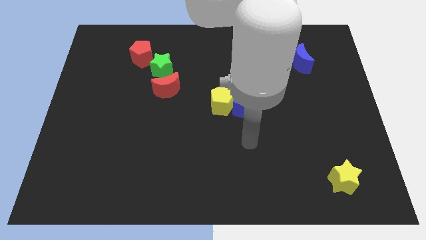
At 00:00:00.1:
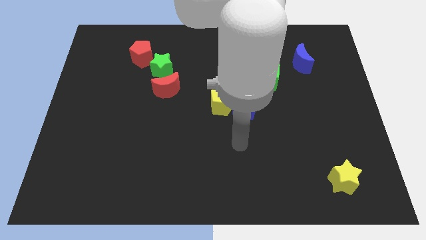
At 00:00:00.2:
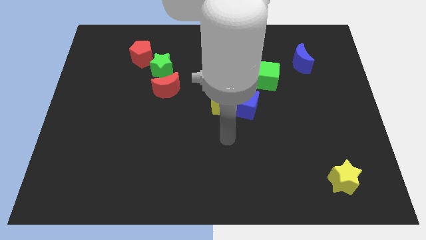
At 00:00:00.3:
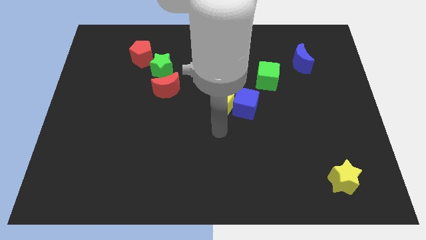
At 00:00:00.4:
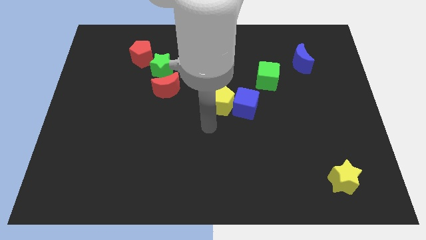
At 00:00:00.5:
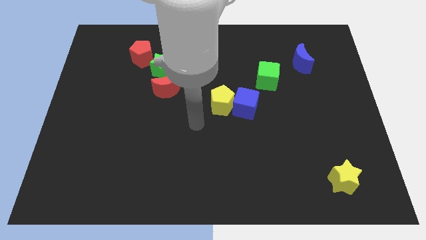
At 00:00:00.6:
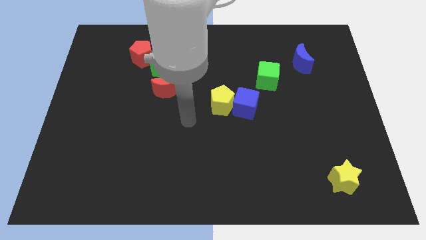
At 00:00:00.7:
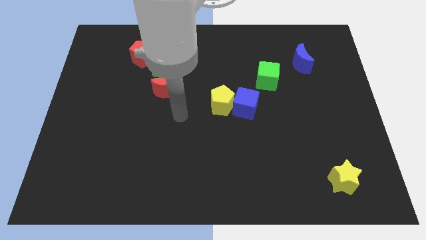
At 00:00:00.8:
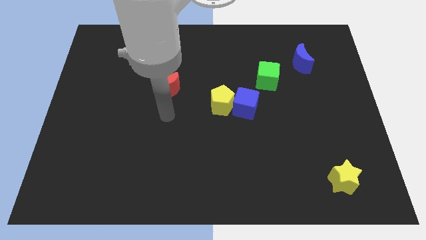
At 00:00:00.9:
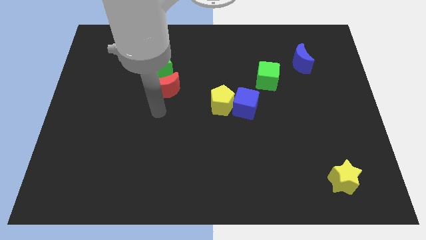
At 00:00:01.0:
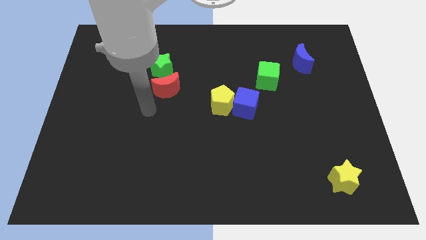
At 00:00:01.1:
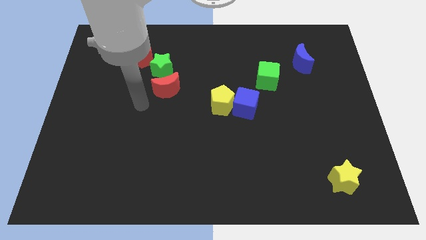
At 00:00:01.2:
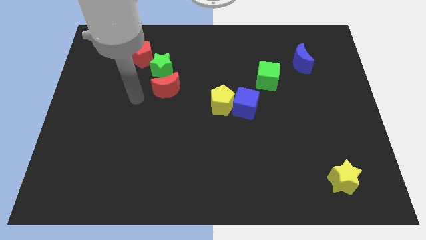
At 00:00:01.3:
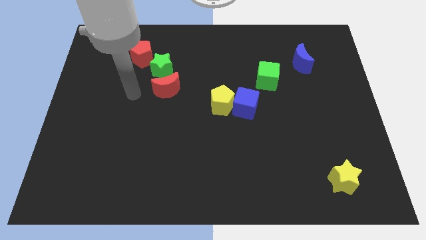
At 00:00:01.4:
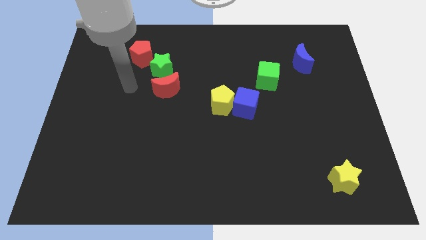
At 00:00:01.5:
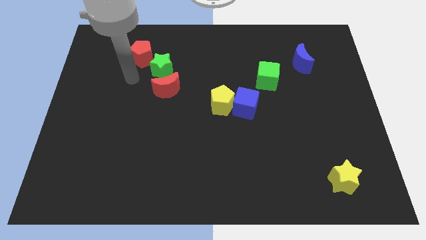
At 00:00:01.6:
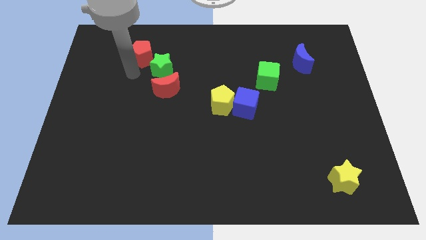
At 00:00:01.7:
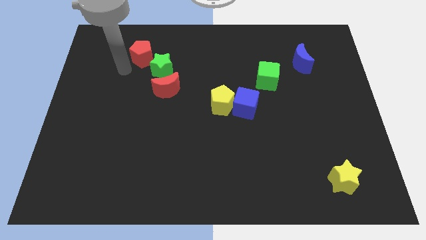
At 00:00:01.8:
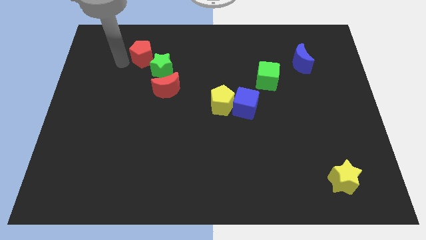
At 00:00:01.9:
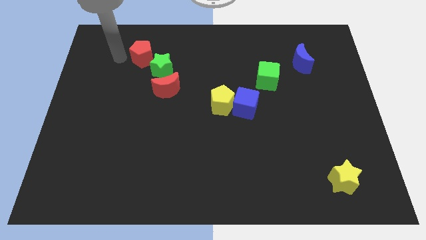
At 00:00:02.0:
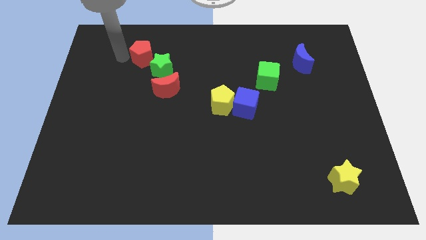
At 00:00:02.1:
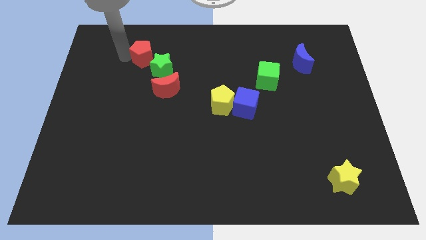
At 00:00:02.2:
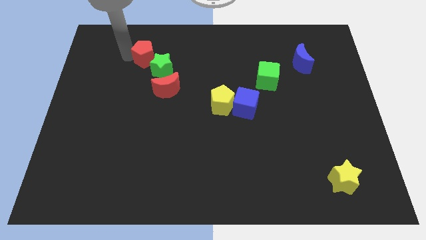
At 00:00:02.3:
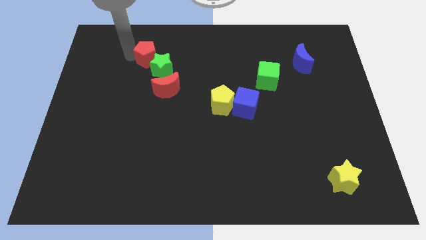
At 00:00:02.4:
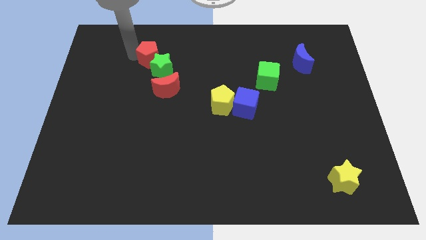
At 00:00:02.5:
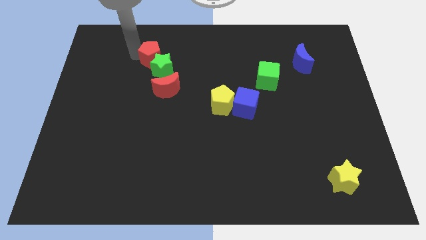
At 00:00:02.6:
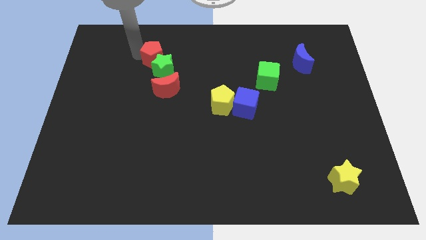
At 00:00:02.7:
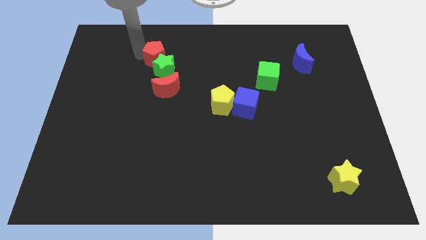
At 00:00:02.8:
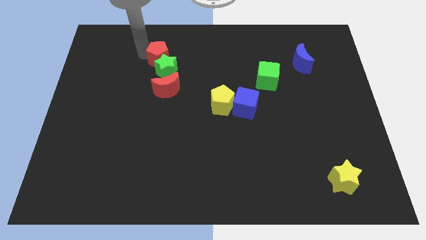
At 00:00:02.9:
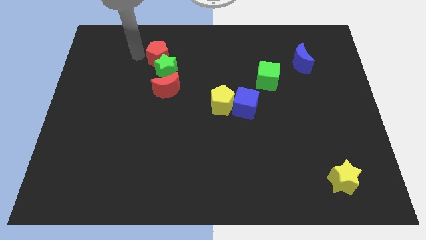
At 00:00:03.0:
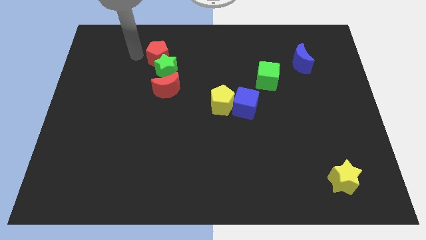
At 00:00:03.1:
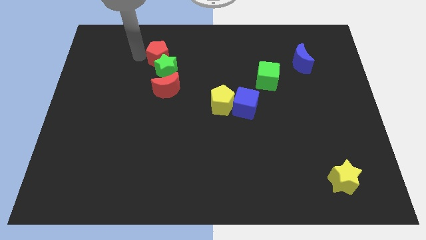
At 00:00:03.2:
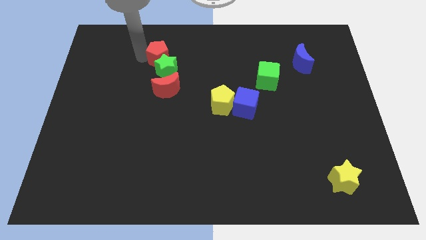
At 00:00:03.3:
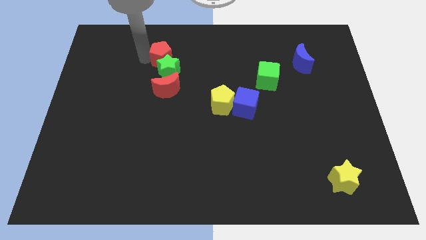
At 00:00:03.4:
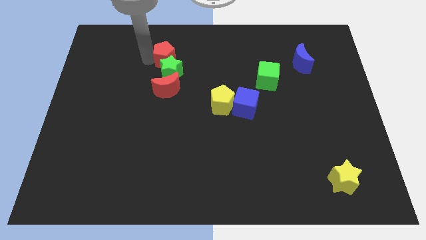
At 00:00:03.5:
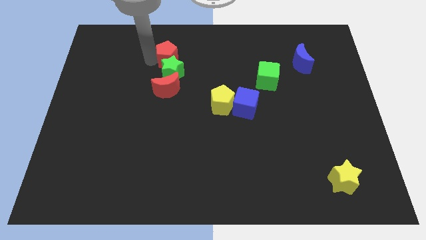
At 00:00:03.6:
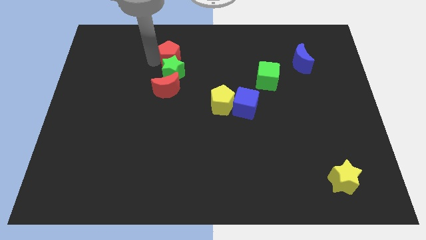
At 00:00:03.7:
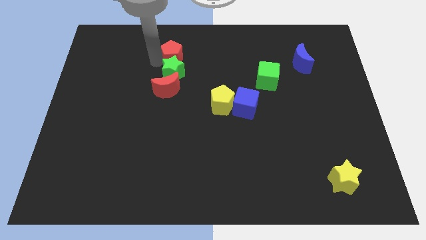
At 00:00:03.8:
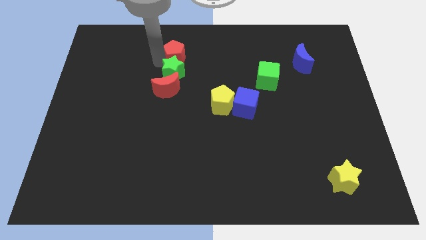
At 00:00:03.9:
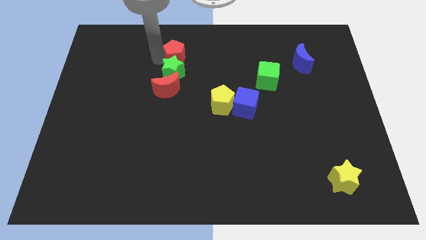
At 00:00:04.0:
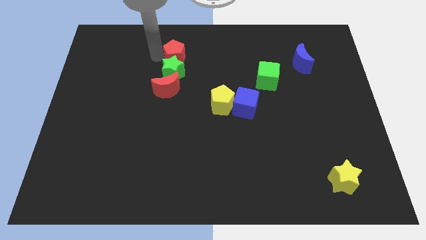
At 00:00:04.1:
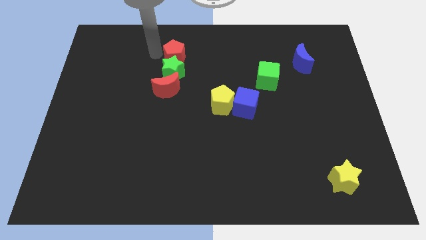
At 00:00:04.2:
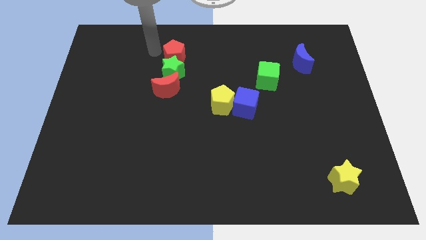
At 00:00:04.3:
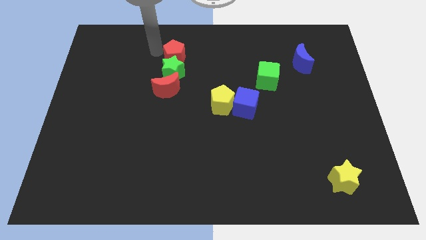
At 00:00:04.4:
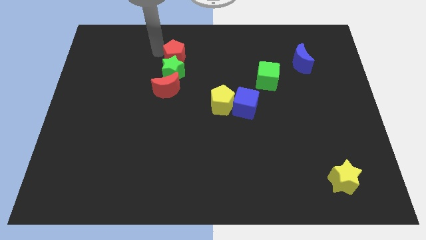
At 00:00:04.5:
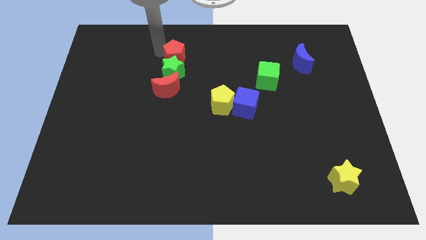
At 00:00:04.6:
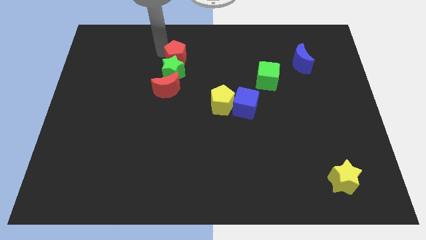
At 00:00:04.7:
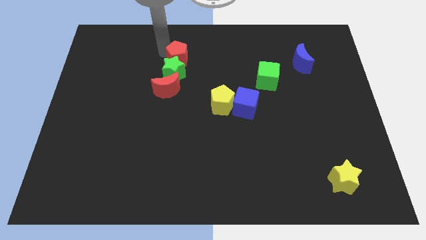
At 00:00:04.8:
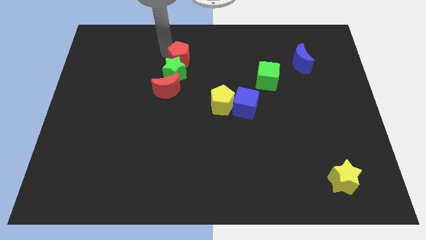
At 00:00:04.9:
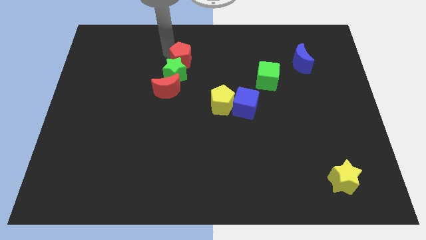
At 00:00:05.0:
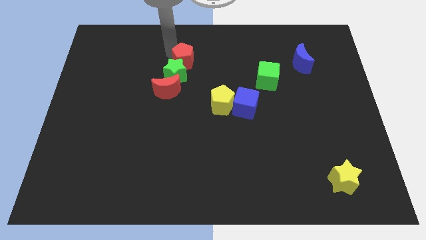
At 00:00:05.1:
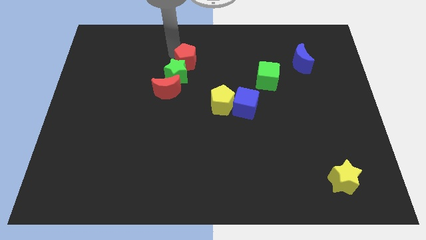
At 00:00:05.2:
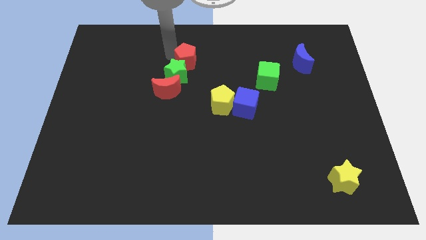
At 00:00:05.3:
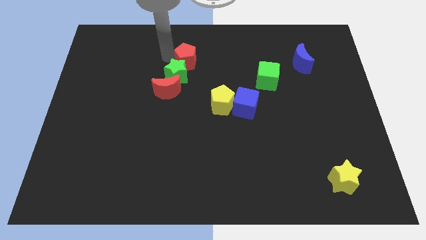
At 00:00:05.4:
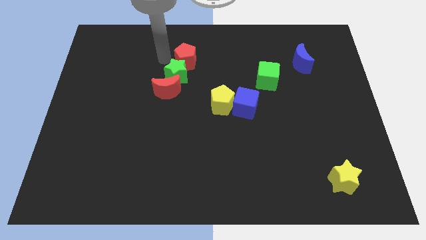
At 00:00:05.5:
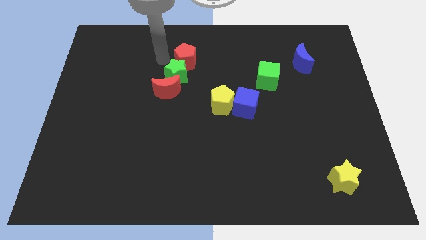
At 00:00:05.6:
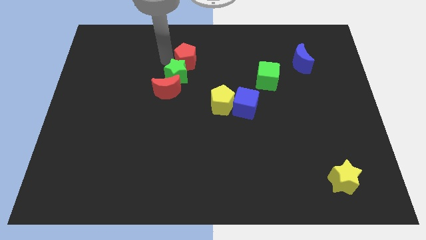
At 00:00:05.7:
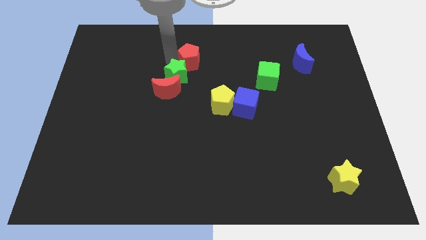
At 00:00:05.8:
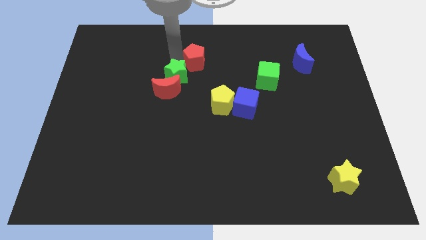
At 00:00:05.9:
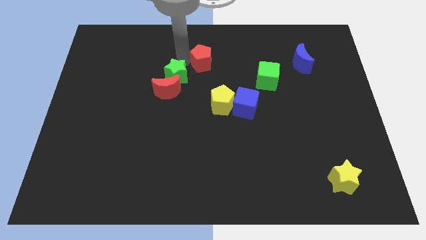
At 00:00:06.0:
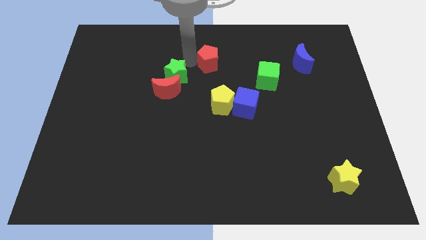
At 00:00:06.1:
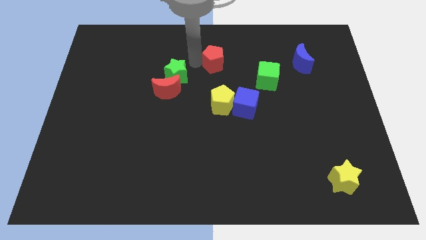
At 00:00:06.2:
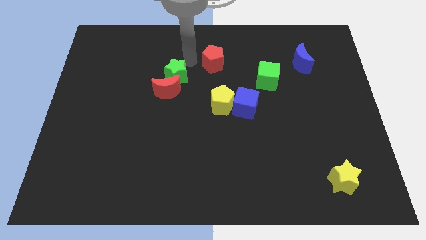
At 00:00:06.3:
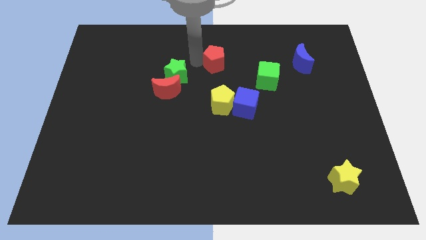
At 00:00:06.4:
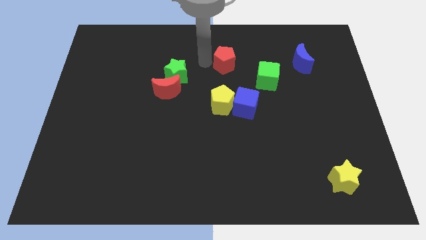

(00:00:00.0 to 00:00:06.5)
push the red pentagon diagonally up and to the left of the green cube

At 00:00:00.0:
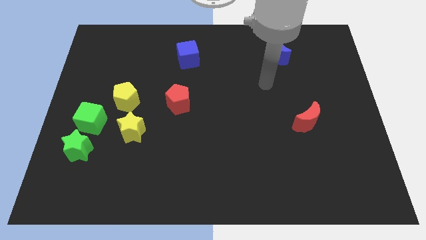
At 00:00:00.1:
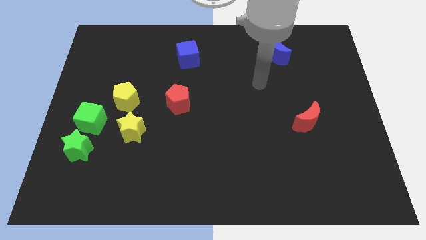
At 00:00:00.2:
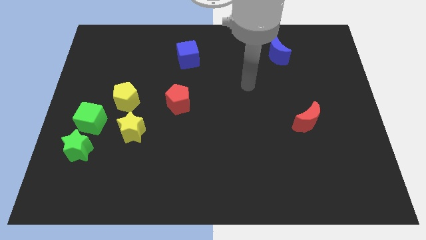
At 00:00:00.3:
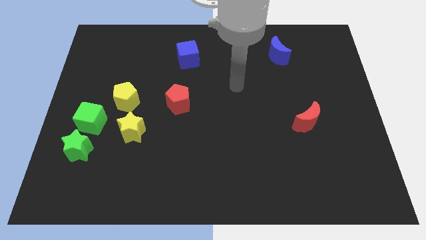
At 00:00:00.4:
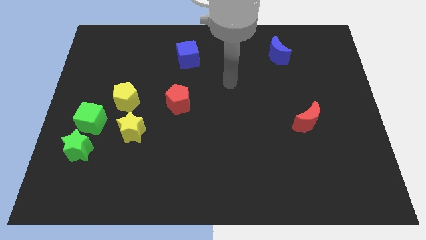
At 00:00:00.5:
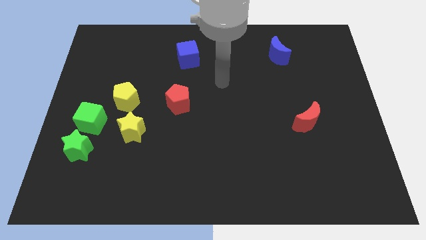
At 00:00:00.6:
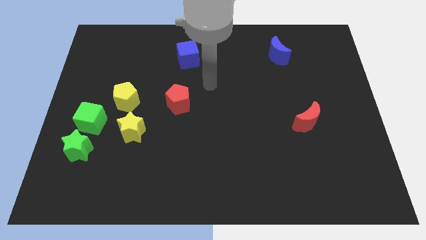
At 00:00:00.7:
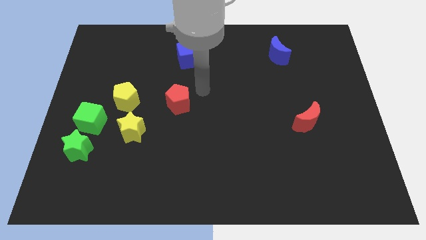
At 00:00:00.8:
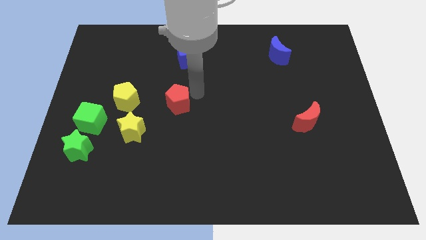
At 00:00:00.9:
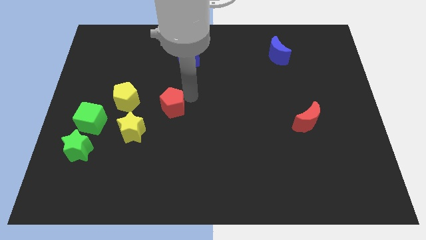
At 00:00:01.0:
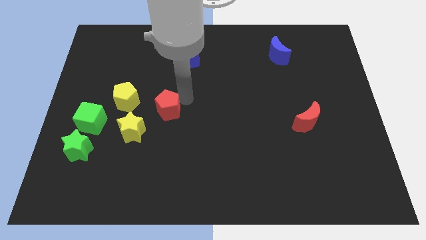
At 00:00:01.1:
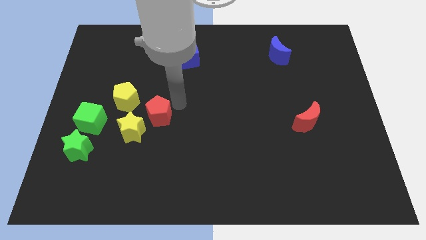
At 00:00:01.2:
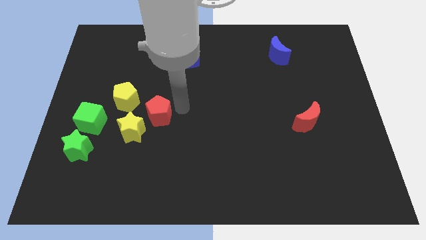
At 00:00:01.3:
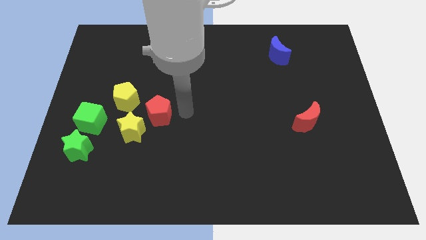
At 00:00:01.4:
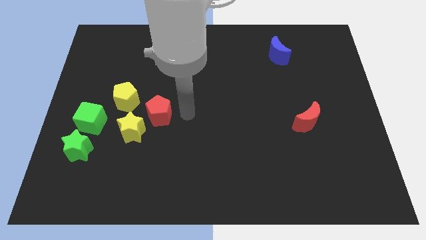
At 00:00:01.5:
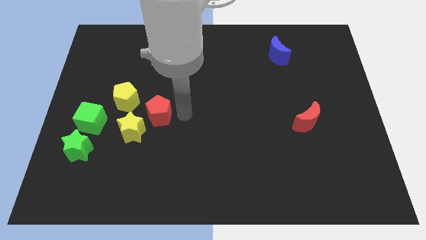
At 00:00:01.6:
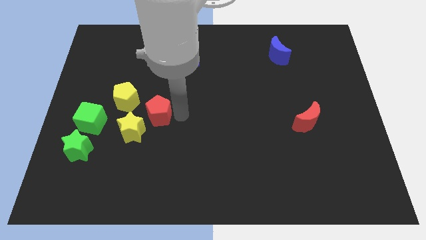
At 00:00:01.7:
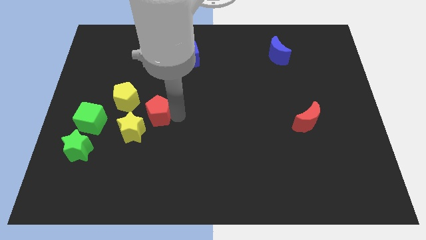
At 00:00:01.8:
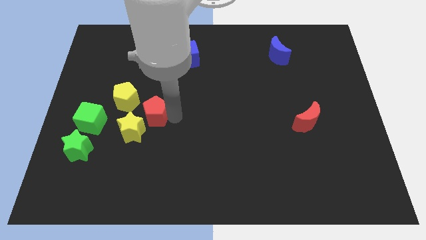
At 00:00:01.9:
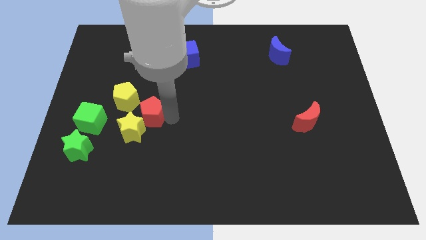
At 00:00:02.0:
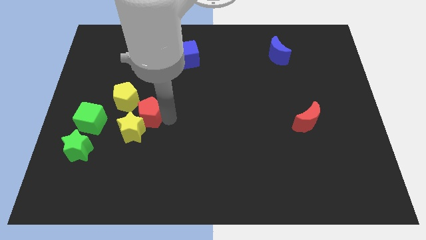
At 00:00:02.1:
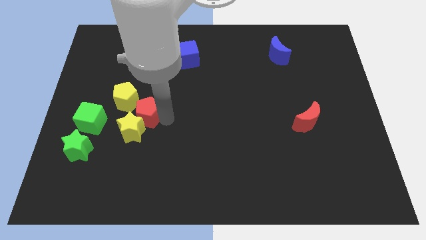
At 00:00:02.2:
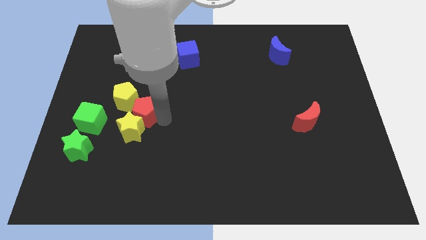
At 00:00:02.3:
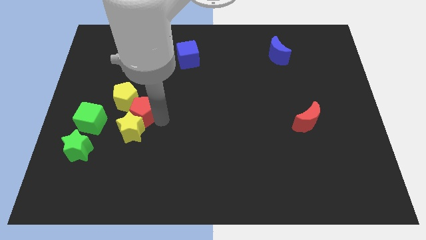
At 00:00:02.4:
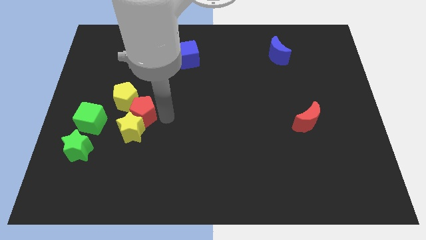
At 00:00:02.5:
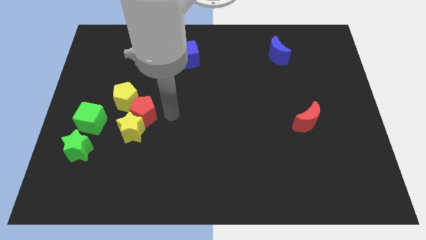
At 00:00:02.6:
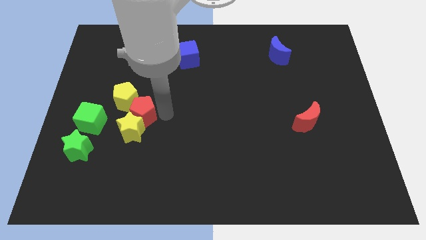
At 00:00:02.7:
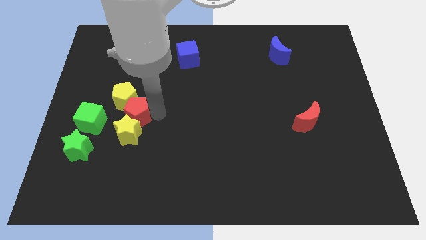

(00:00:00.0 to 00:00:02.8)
slide the red pentagon to the top left side of the yellow star
